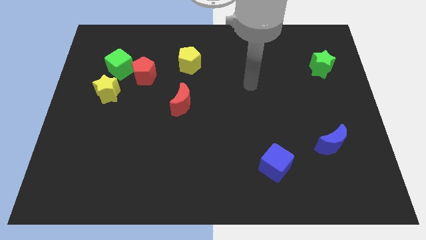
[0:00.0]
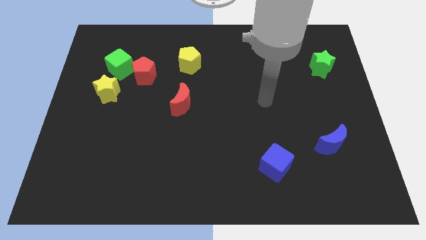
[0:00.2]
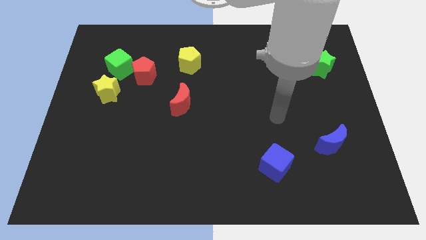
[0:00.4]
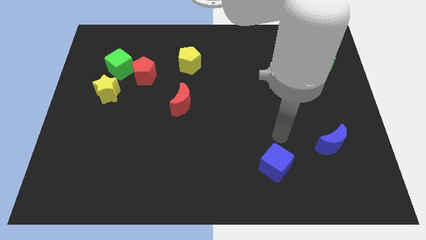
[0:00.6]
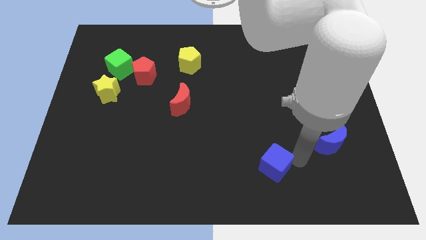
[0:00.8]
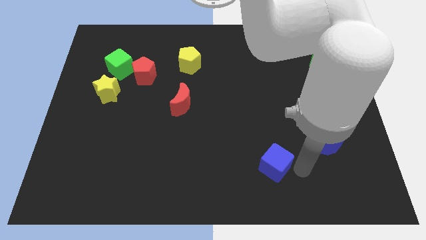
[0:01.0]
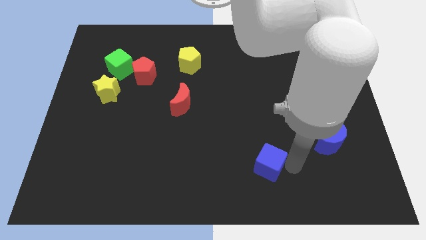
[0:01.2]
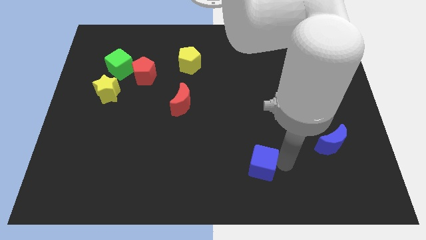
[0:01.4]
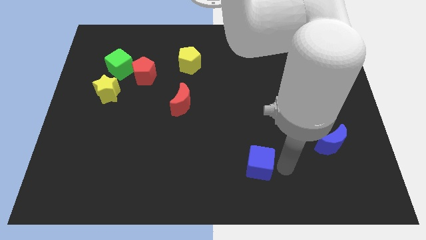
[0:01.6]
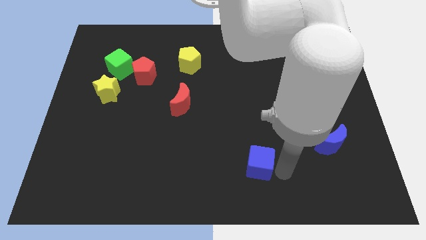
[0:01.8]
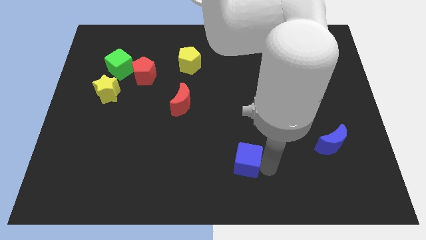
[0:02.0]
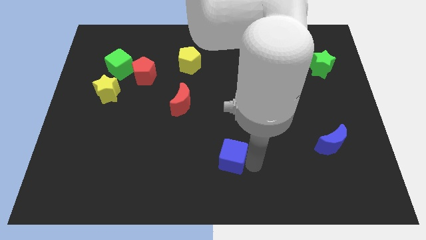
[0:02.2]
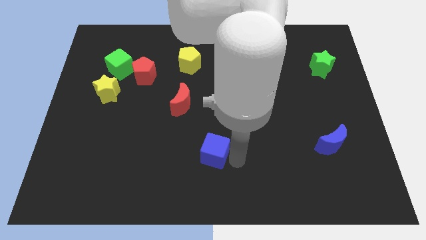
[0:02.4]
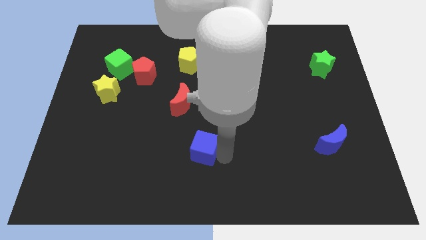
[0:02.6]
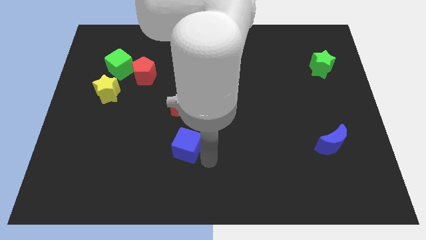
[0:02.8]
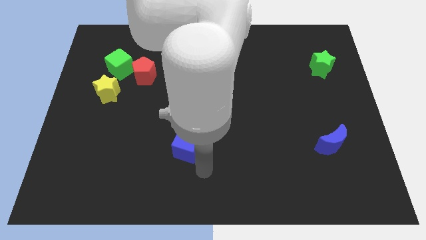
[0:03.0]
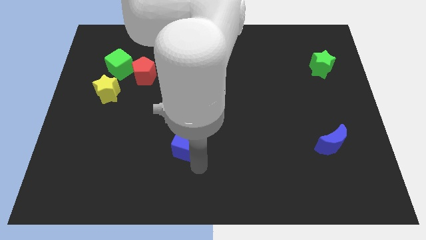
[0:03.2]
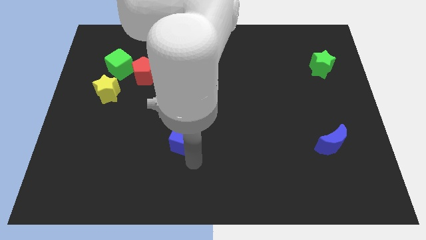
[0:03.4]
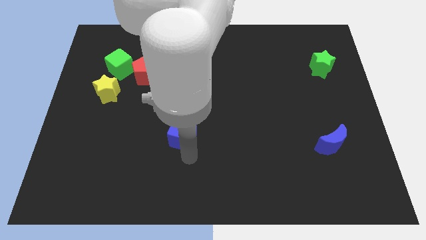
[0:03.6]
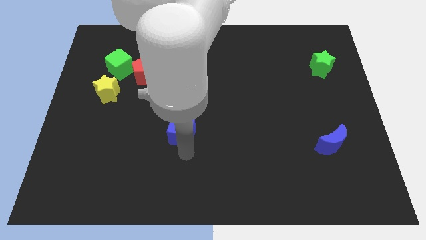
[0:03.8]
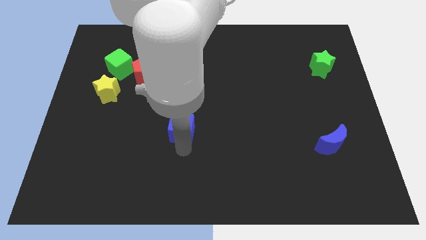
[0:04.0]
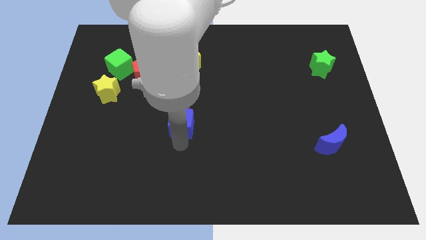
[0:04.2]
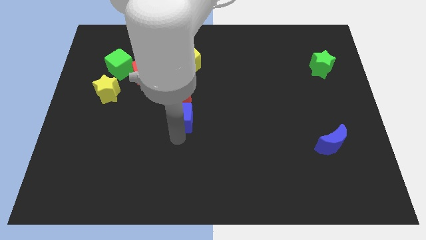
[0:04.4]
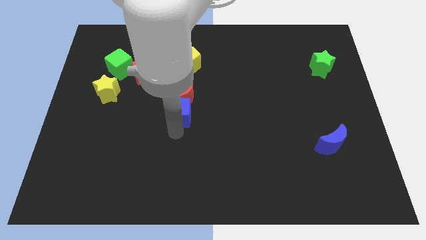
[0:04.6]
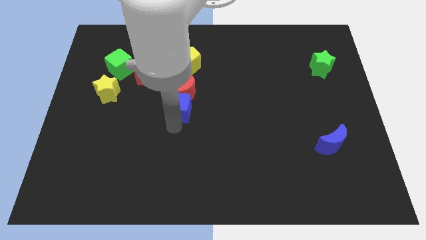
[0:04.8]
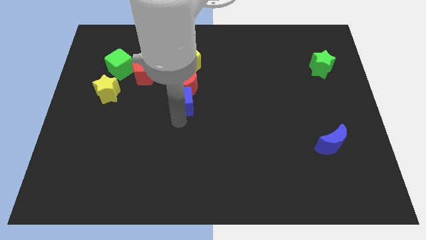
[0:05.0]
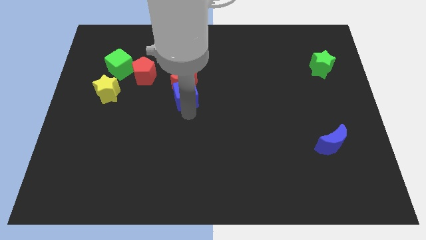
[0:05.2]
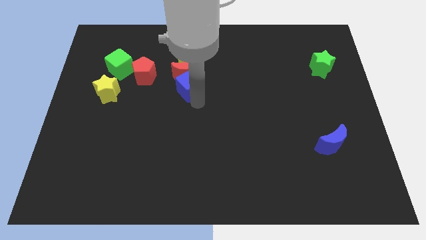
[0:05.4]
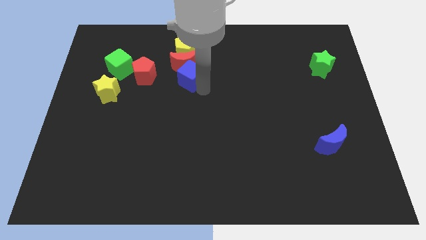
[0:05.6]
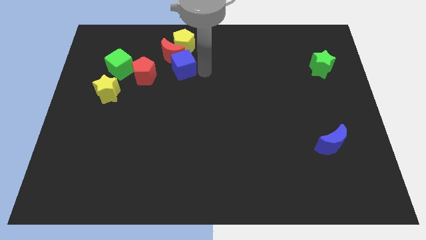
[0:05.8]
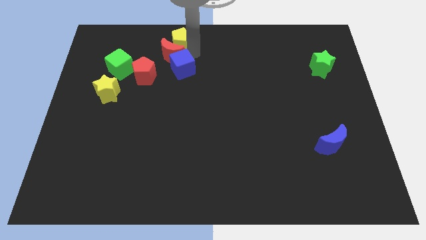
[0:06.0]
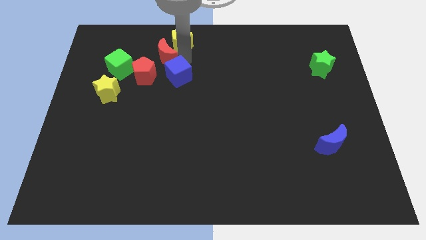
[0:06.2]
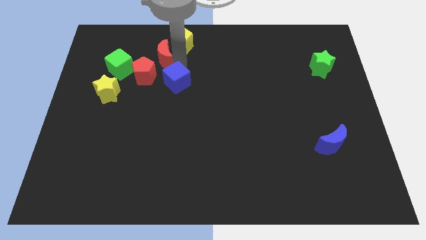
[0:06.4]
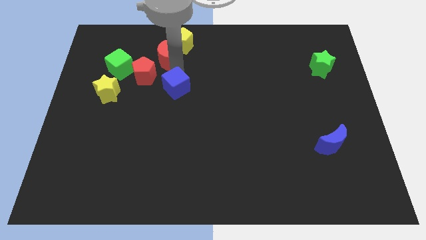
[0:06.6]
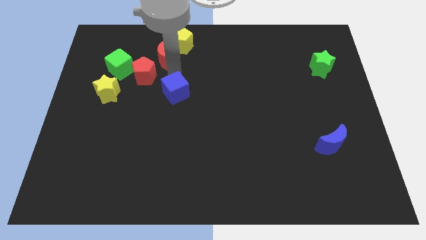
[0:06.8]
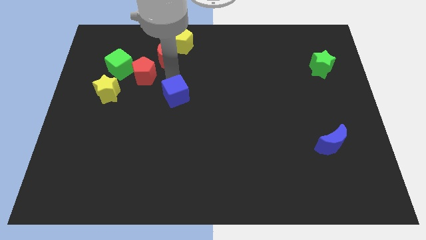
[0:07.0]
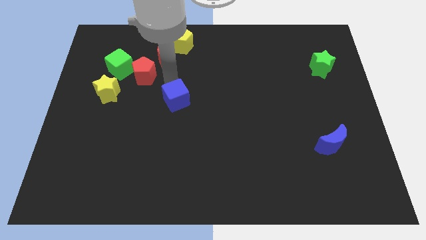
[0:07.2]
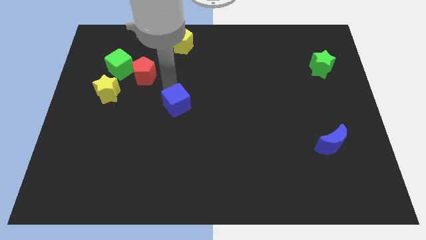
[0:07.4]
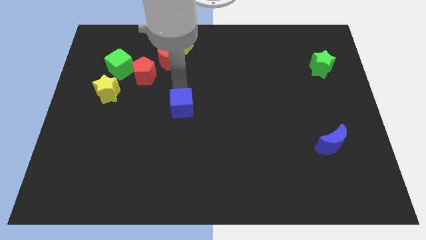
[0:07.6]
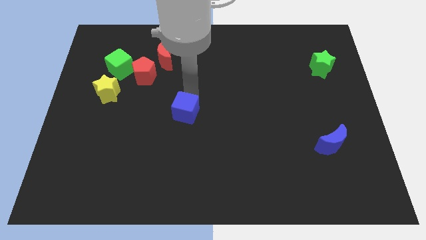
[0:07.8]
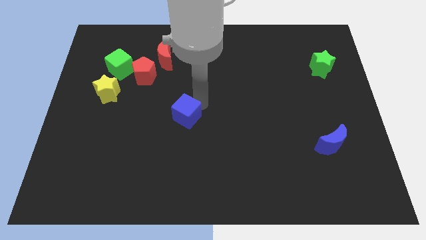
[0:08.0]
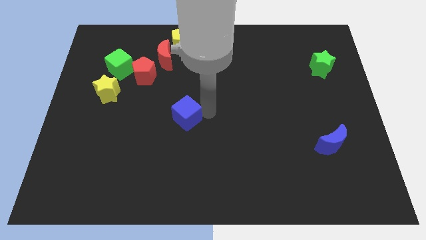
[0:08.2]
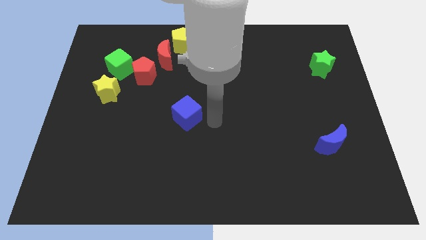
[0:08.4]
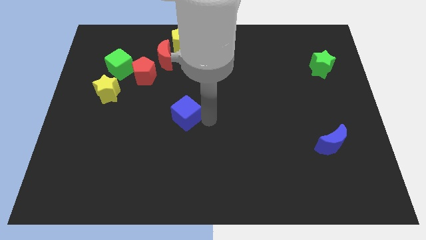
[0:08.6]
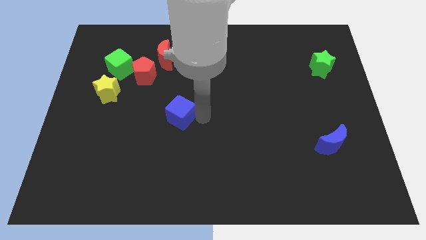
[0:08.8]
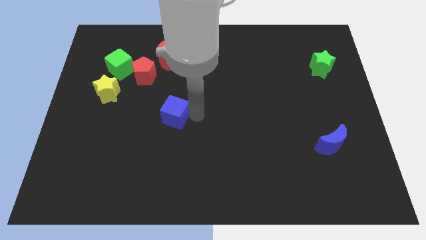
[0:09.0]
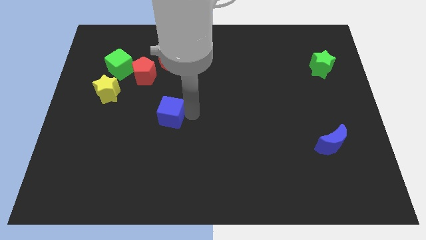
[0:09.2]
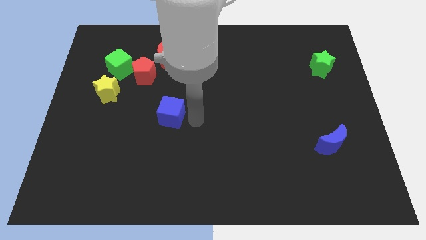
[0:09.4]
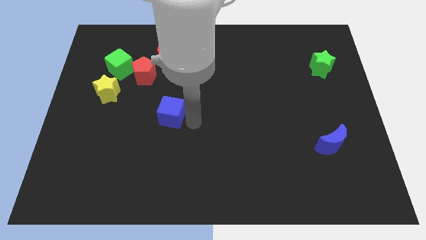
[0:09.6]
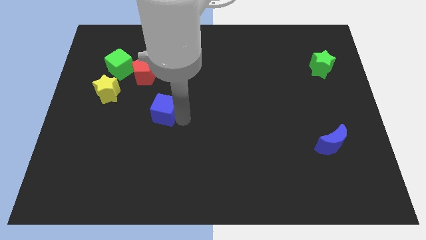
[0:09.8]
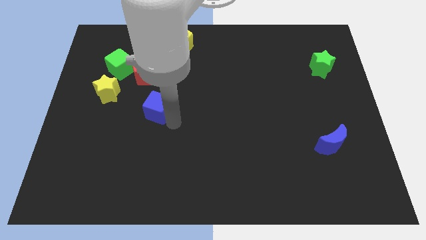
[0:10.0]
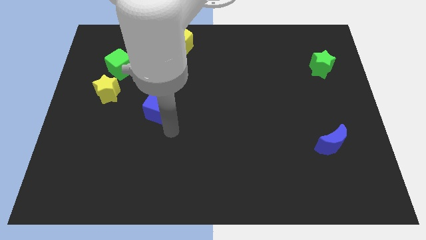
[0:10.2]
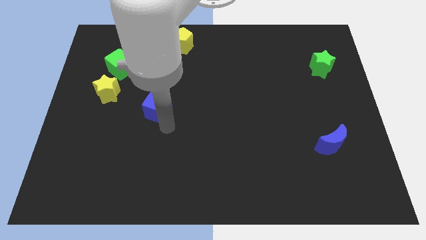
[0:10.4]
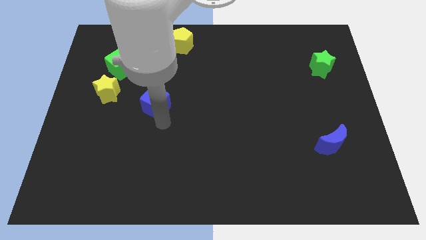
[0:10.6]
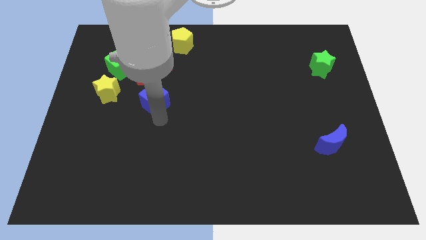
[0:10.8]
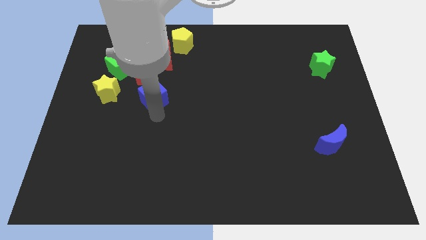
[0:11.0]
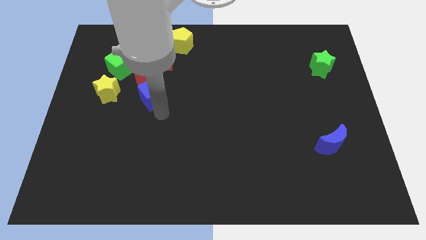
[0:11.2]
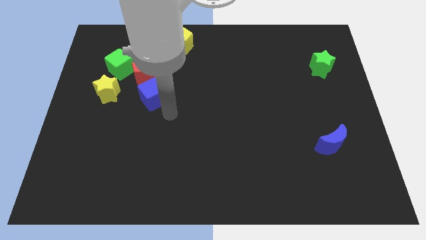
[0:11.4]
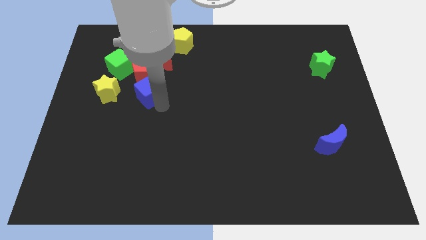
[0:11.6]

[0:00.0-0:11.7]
slide the blue cube diagonally down and to the right of the green cube
